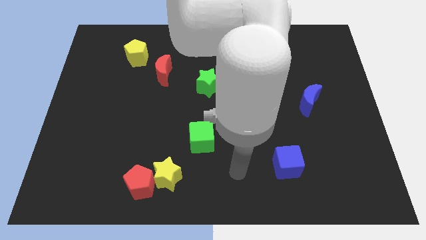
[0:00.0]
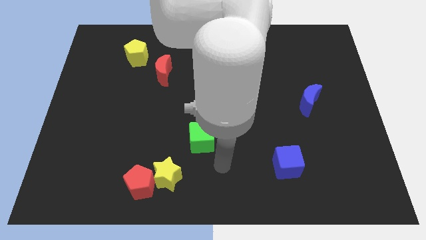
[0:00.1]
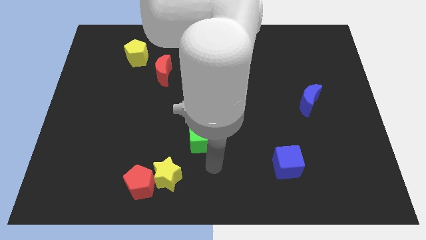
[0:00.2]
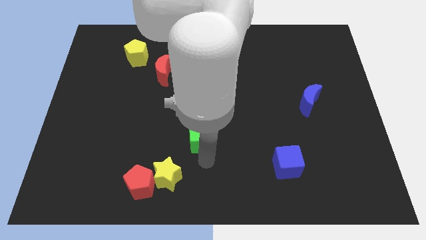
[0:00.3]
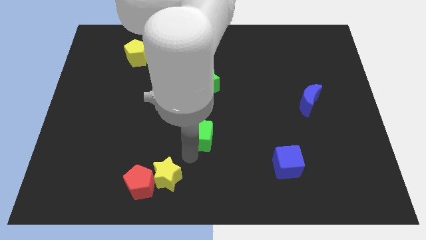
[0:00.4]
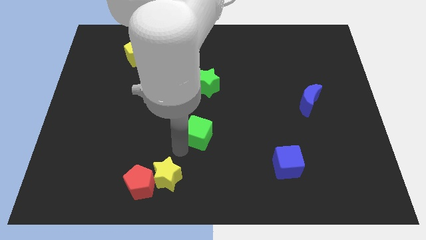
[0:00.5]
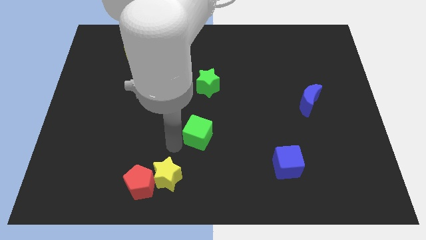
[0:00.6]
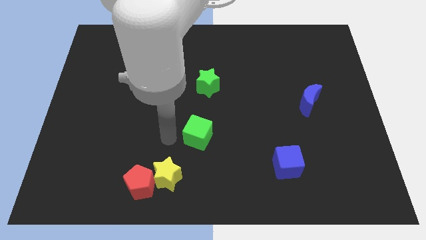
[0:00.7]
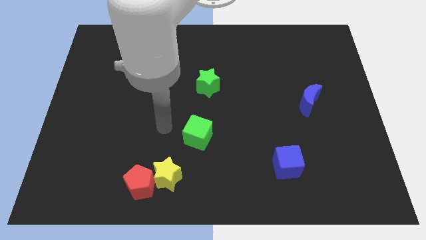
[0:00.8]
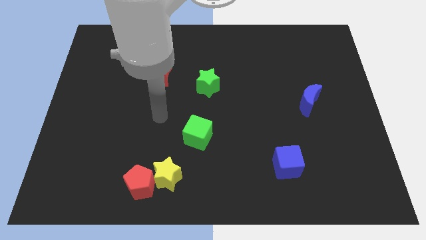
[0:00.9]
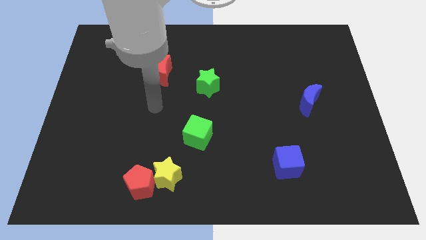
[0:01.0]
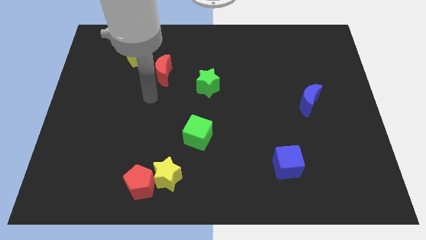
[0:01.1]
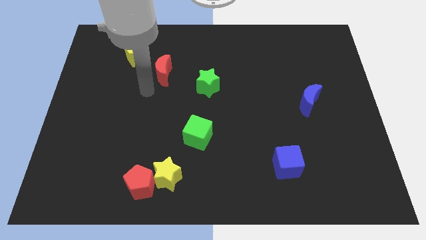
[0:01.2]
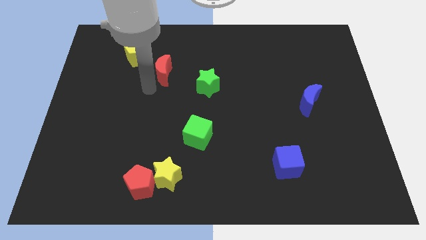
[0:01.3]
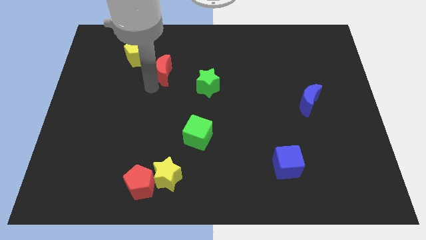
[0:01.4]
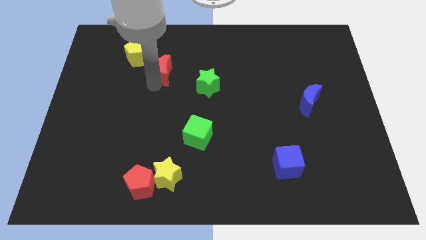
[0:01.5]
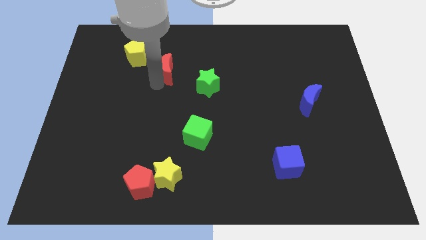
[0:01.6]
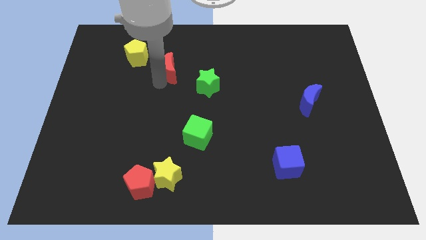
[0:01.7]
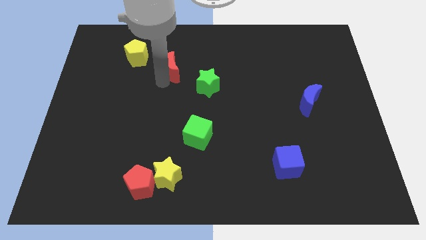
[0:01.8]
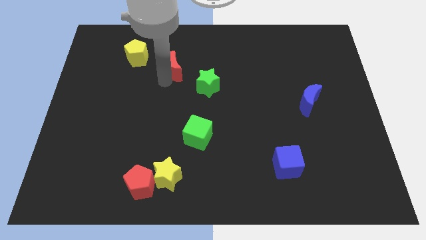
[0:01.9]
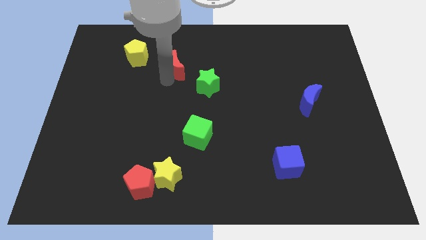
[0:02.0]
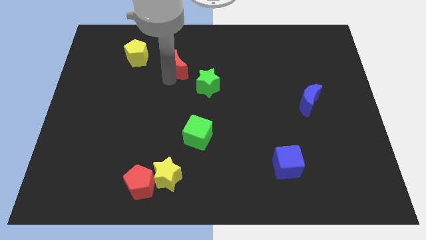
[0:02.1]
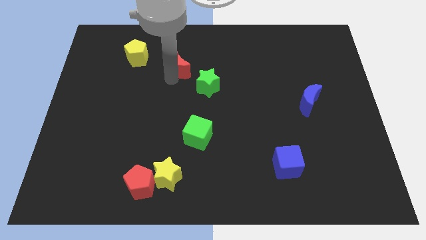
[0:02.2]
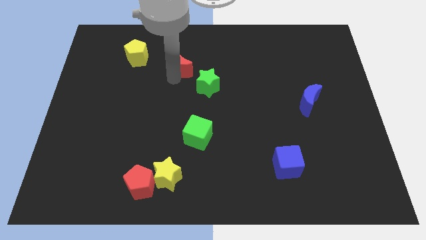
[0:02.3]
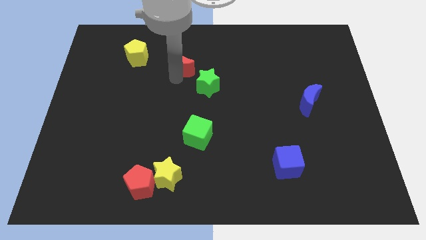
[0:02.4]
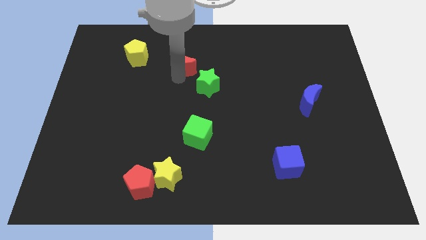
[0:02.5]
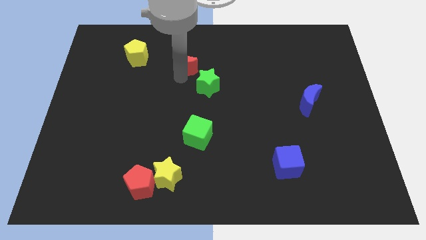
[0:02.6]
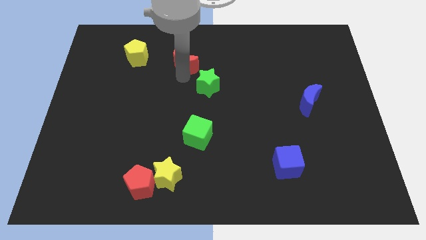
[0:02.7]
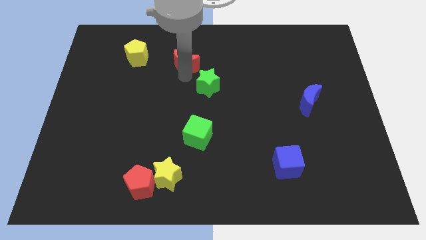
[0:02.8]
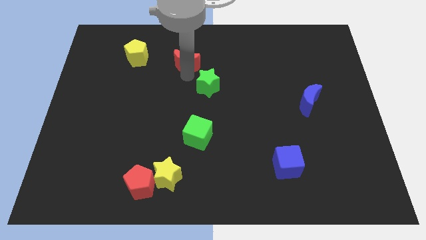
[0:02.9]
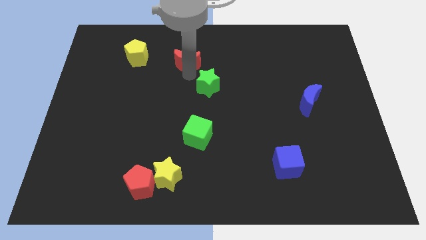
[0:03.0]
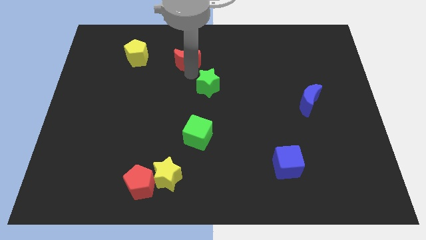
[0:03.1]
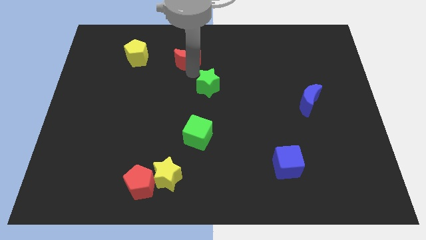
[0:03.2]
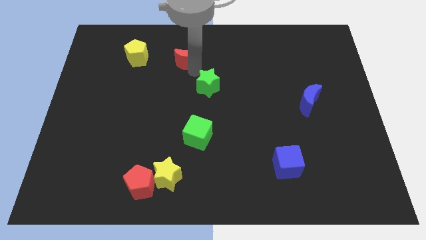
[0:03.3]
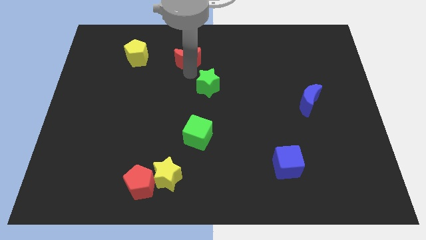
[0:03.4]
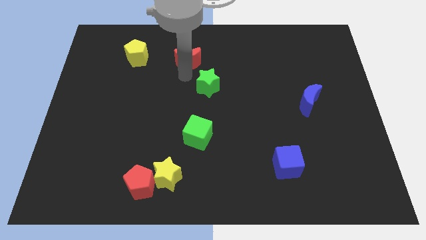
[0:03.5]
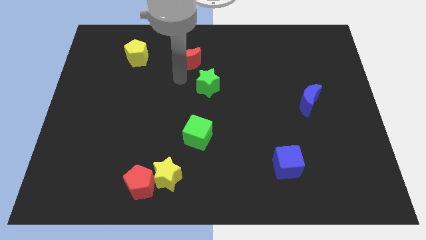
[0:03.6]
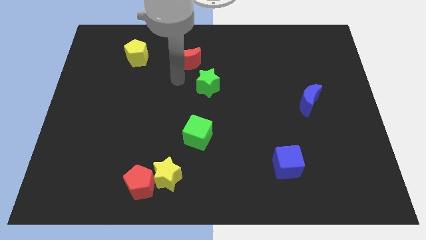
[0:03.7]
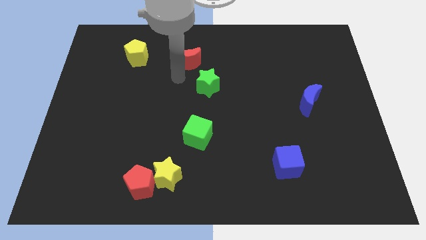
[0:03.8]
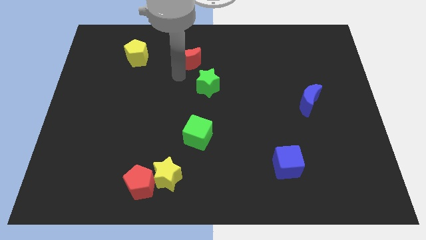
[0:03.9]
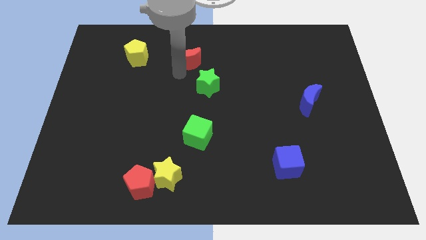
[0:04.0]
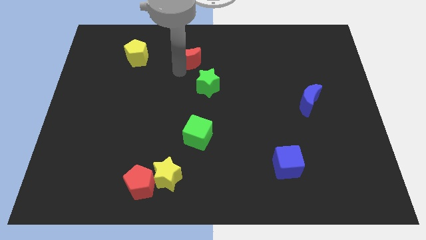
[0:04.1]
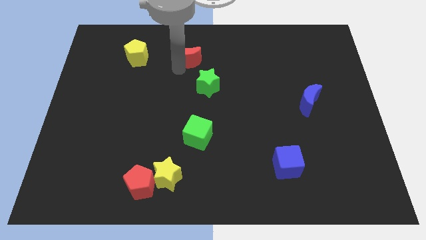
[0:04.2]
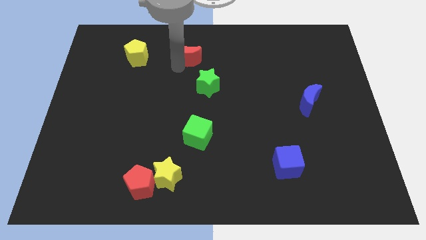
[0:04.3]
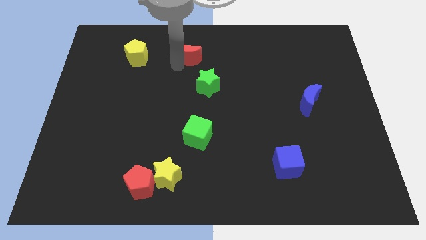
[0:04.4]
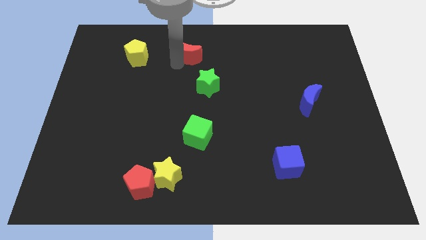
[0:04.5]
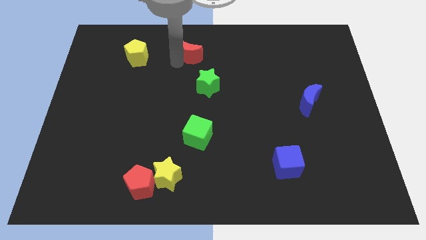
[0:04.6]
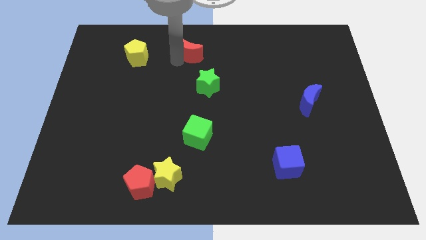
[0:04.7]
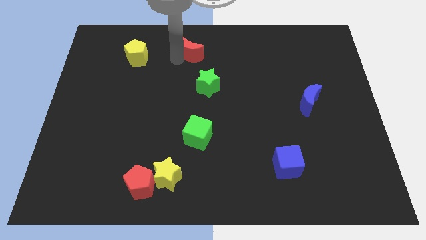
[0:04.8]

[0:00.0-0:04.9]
put the red moon to the towards your base

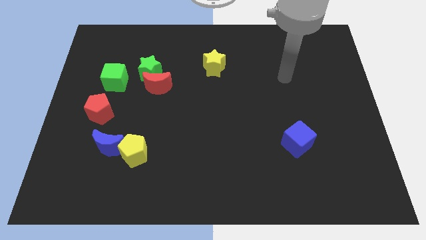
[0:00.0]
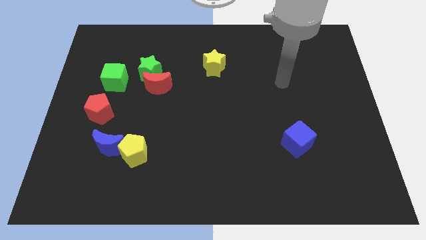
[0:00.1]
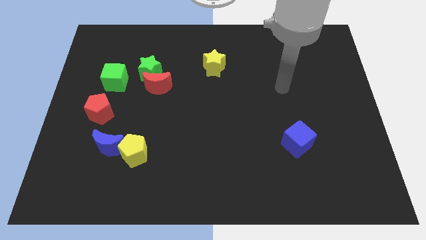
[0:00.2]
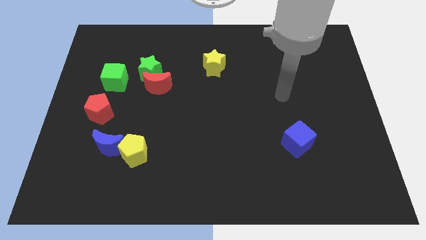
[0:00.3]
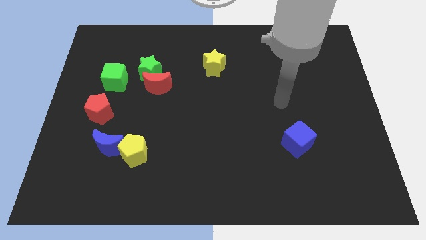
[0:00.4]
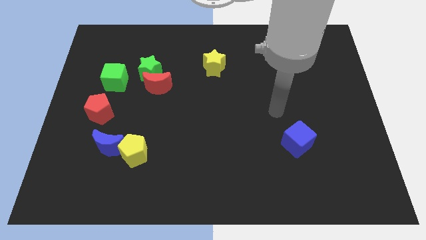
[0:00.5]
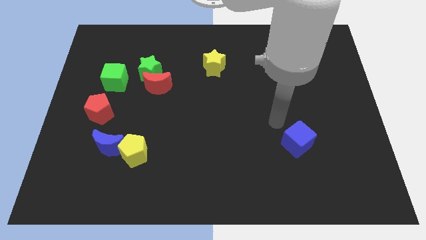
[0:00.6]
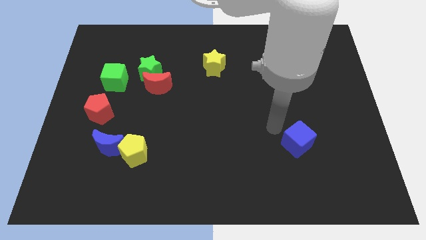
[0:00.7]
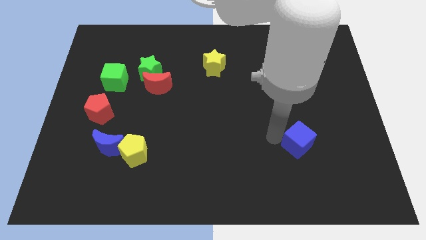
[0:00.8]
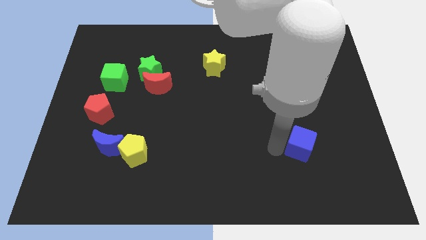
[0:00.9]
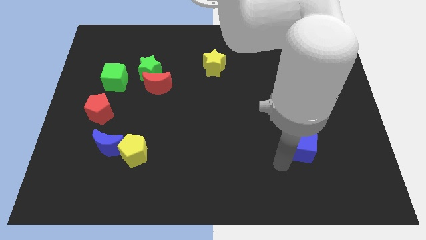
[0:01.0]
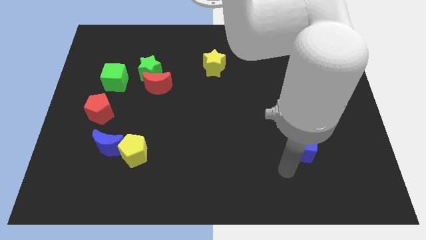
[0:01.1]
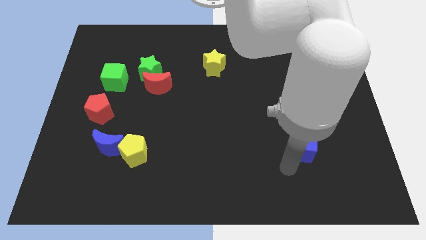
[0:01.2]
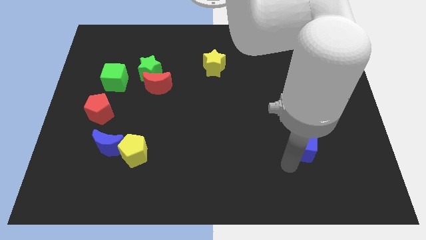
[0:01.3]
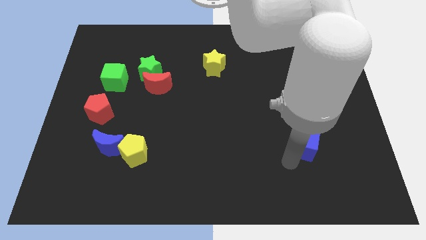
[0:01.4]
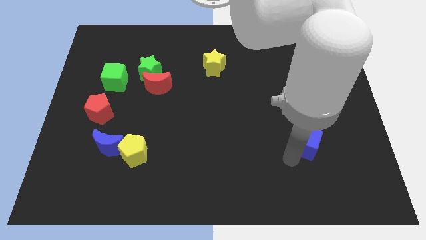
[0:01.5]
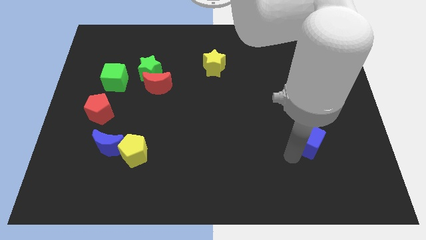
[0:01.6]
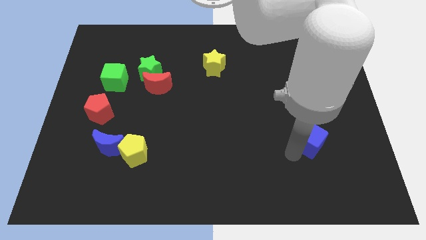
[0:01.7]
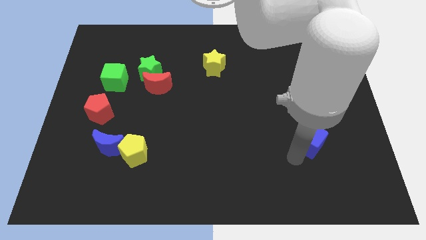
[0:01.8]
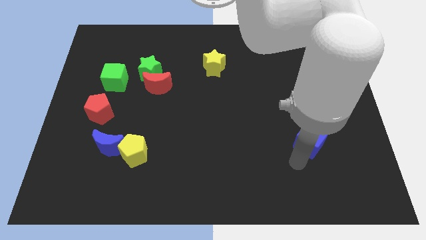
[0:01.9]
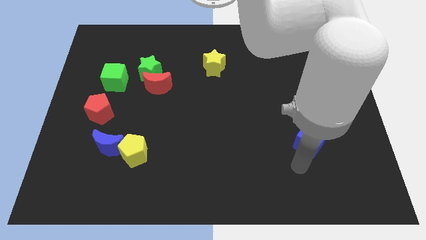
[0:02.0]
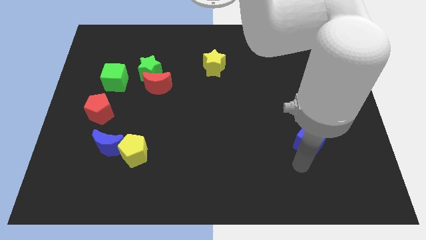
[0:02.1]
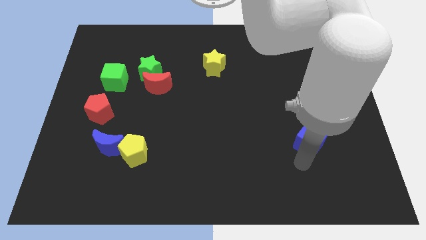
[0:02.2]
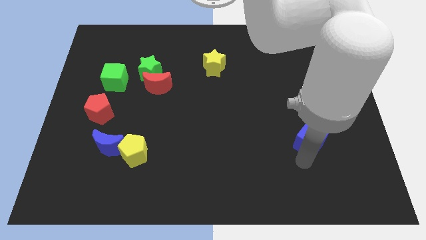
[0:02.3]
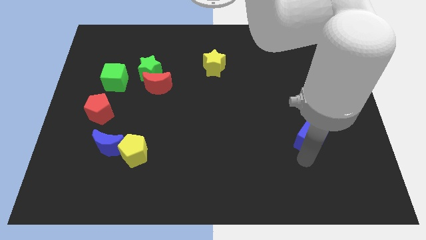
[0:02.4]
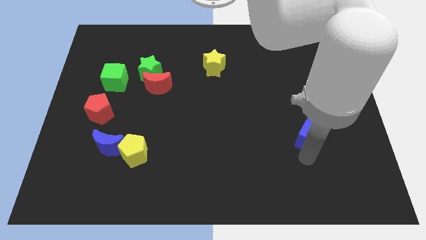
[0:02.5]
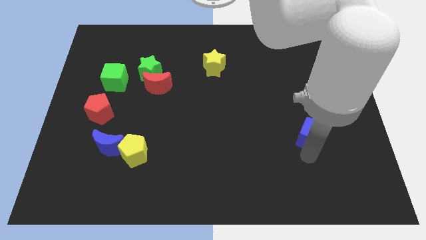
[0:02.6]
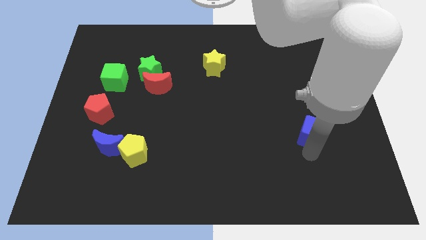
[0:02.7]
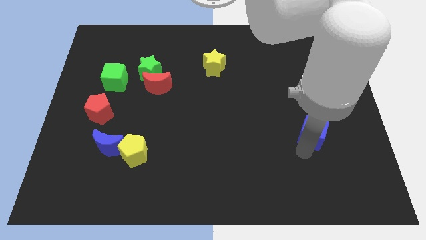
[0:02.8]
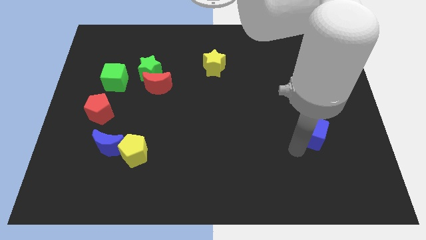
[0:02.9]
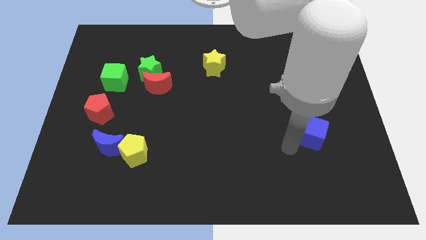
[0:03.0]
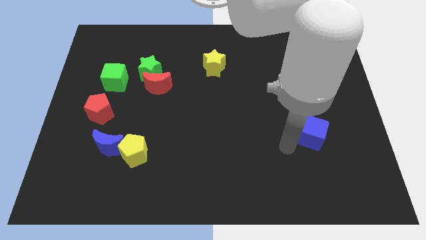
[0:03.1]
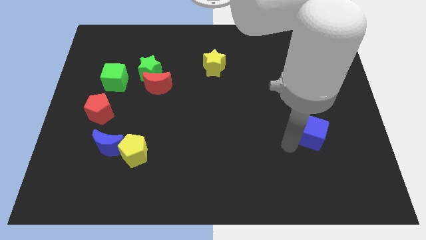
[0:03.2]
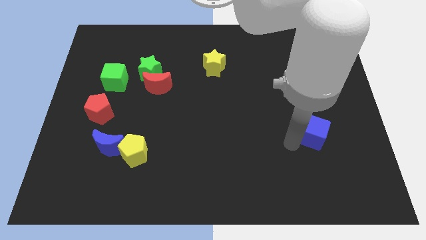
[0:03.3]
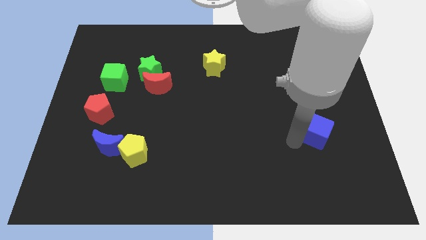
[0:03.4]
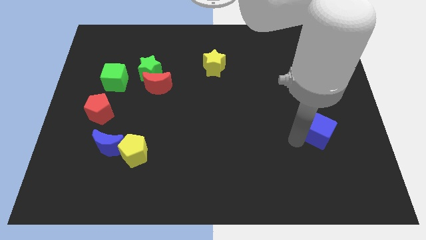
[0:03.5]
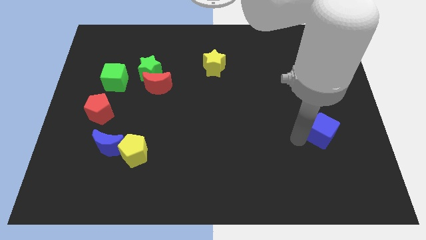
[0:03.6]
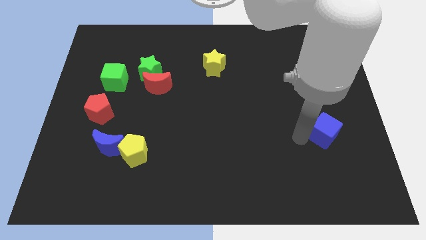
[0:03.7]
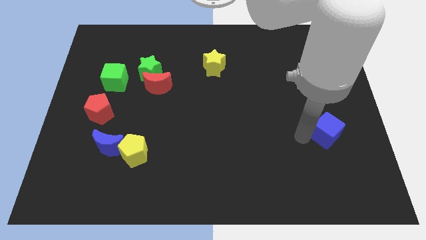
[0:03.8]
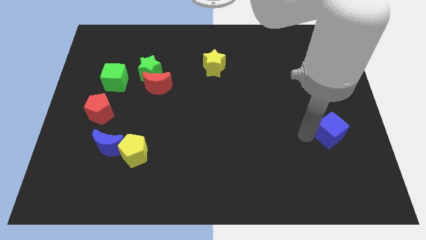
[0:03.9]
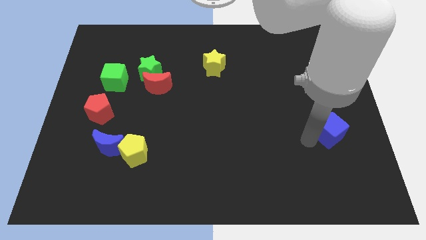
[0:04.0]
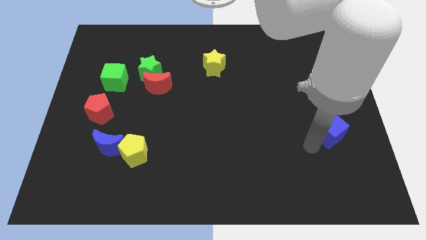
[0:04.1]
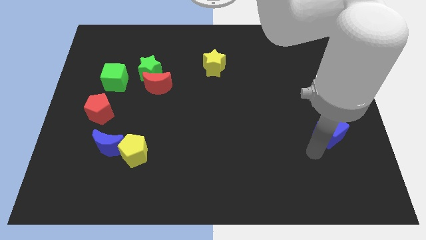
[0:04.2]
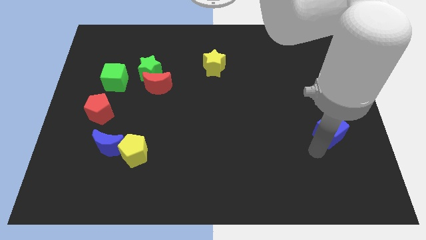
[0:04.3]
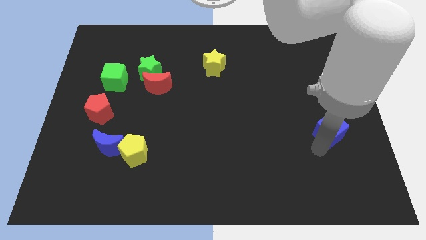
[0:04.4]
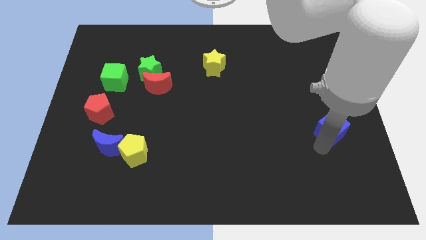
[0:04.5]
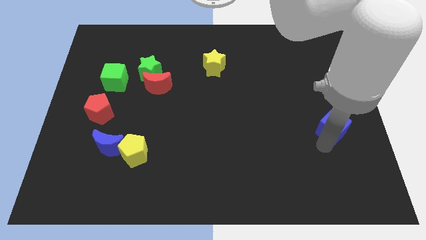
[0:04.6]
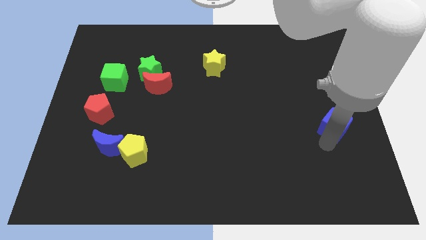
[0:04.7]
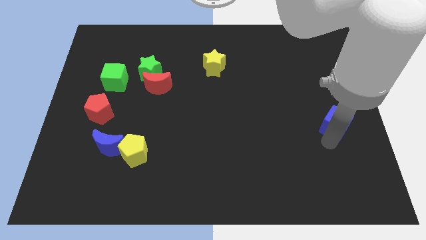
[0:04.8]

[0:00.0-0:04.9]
push the blue cube to the right side of the board
